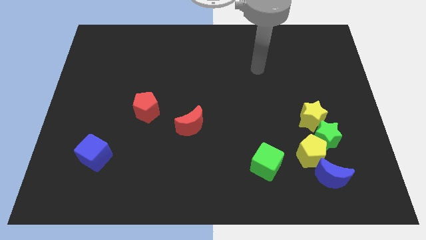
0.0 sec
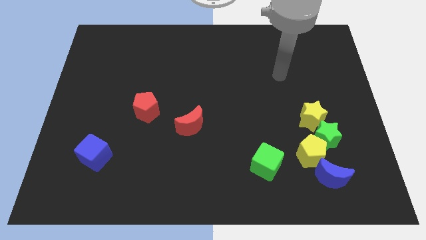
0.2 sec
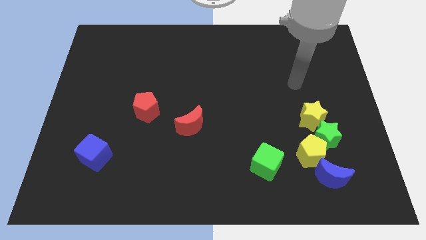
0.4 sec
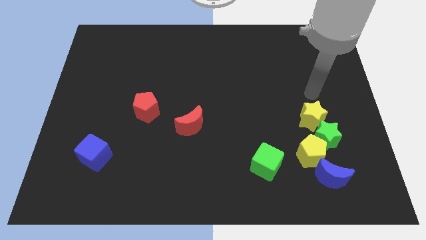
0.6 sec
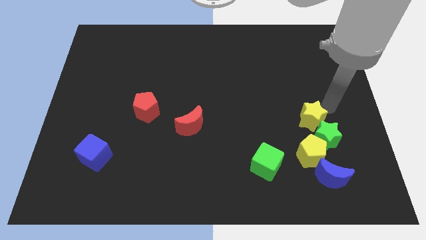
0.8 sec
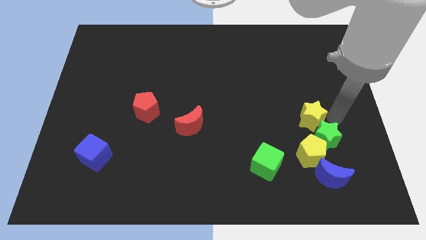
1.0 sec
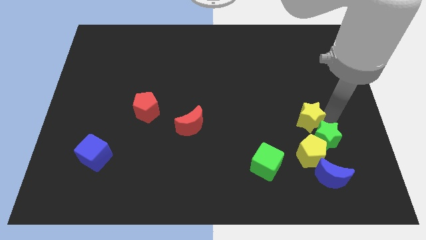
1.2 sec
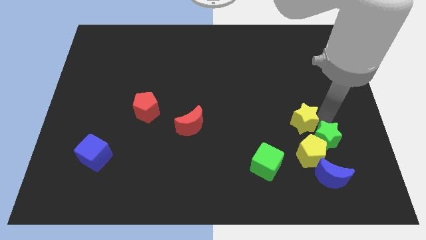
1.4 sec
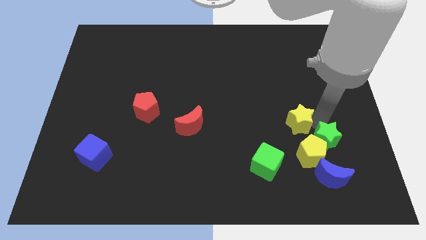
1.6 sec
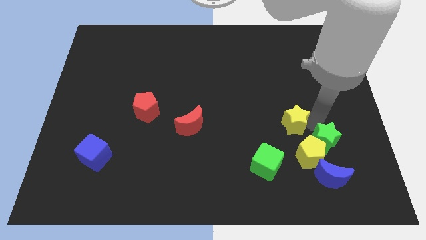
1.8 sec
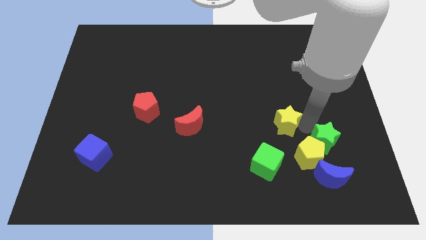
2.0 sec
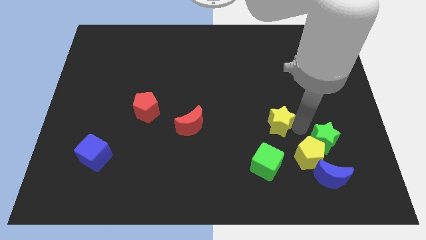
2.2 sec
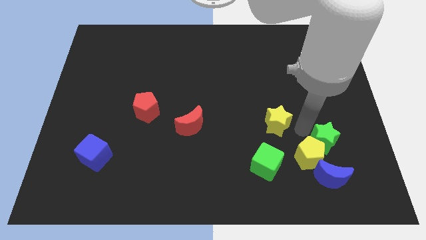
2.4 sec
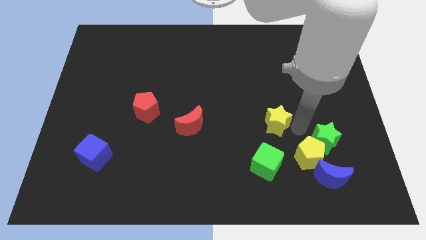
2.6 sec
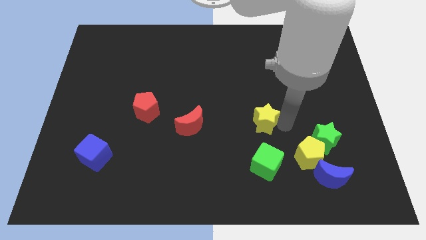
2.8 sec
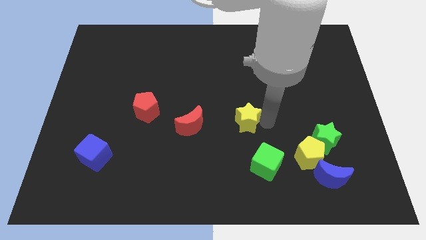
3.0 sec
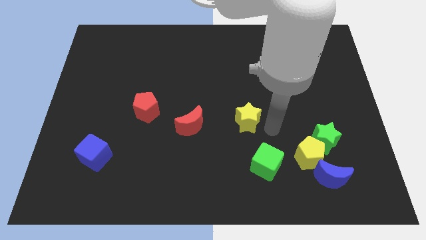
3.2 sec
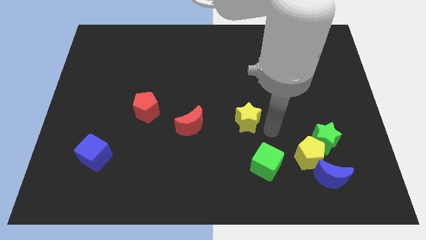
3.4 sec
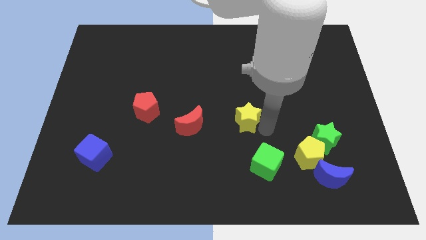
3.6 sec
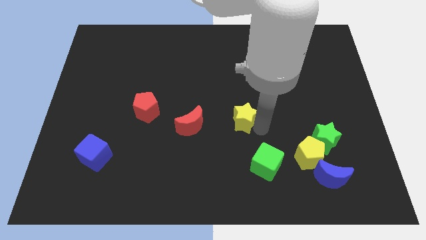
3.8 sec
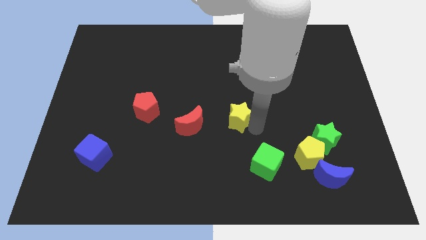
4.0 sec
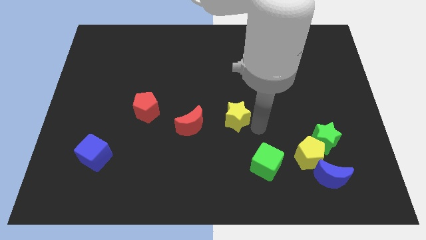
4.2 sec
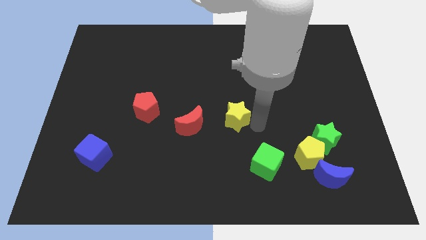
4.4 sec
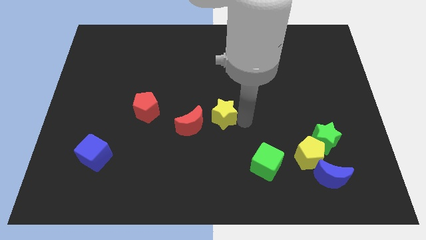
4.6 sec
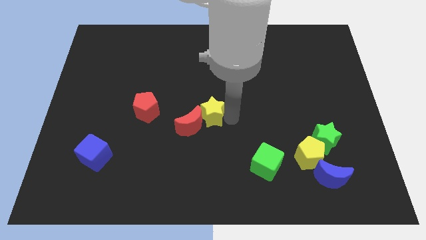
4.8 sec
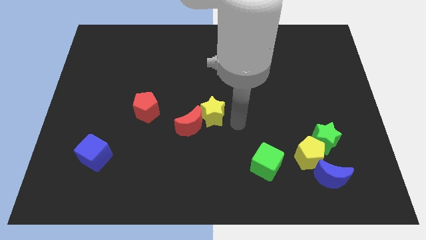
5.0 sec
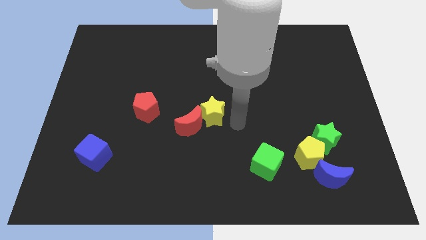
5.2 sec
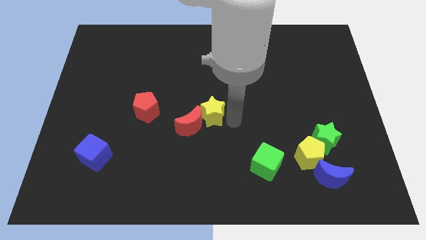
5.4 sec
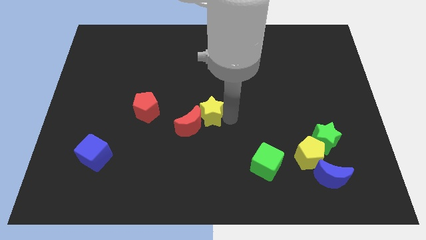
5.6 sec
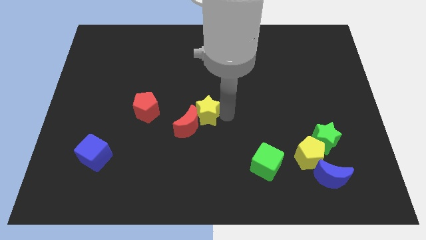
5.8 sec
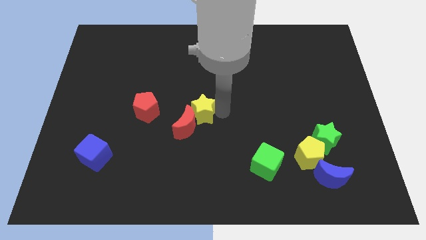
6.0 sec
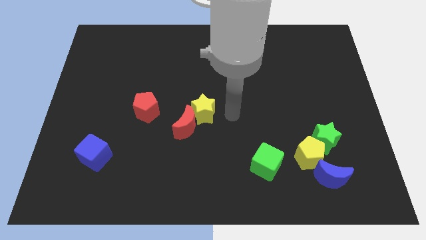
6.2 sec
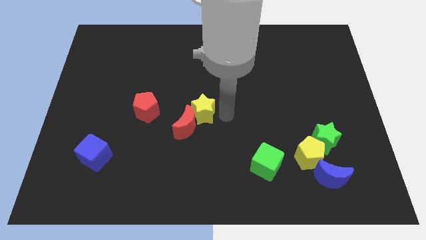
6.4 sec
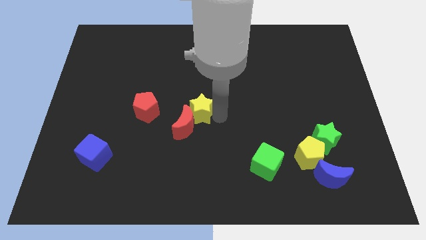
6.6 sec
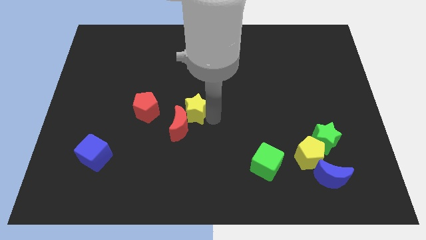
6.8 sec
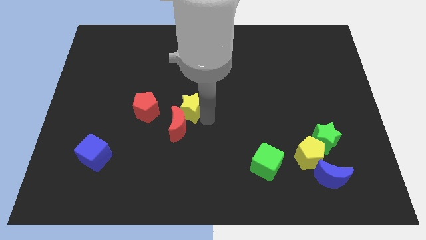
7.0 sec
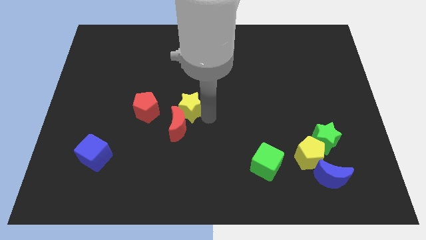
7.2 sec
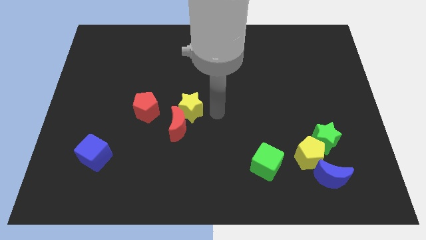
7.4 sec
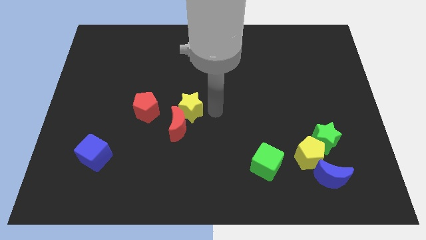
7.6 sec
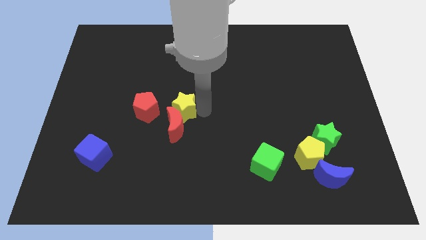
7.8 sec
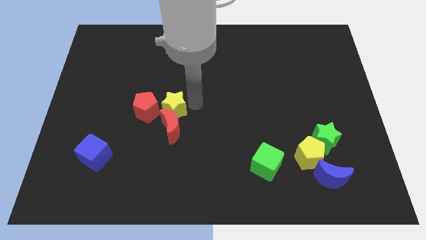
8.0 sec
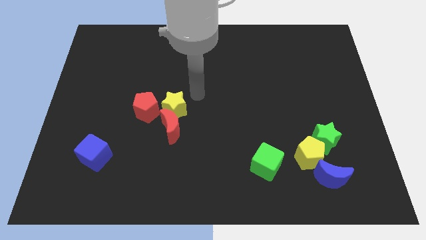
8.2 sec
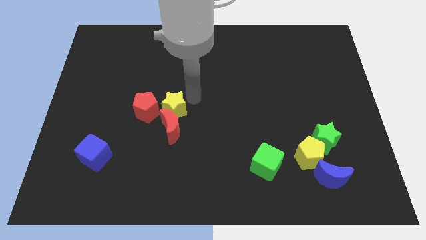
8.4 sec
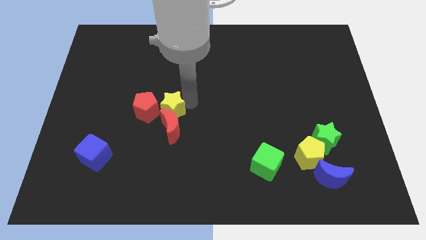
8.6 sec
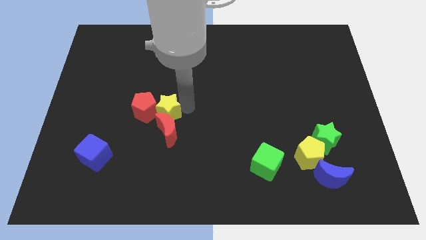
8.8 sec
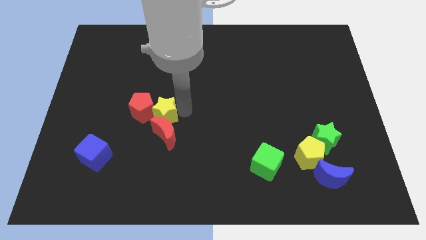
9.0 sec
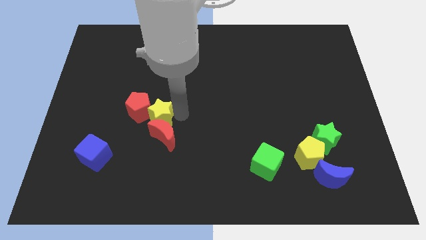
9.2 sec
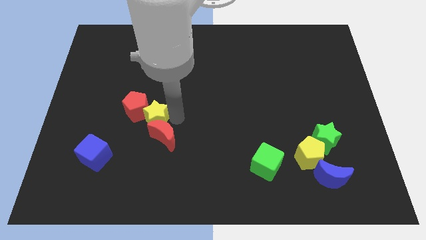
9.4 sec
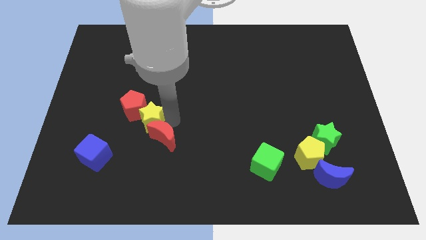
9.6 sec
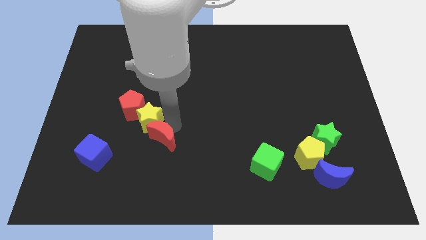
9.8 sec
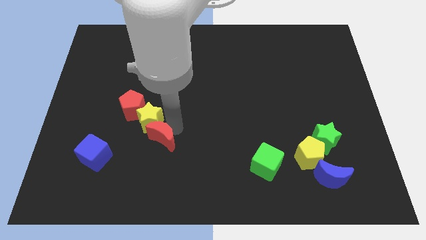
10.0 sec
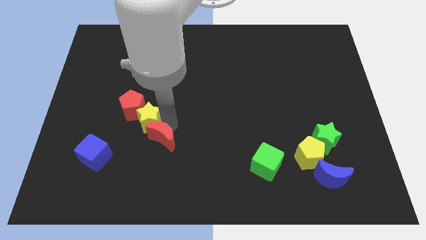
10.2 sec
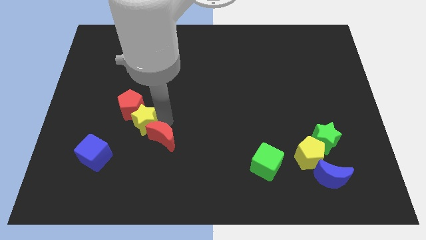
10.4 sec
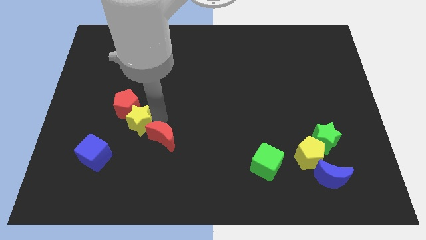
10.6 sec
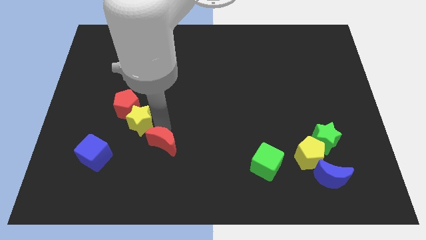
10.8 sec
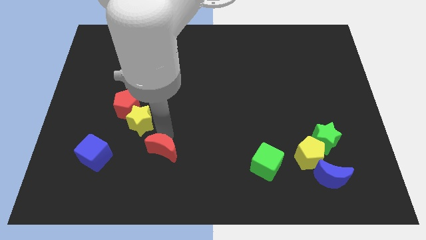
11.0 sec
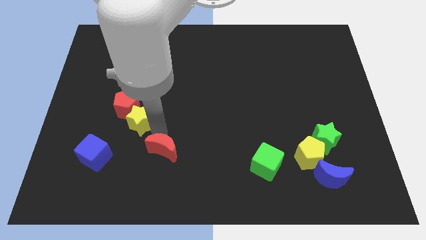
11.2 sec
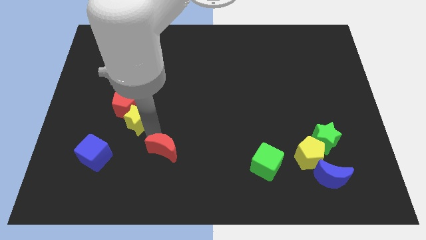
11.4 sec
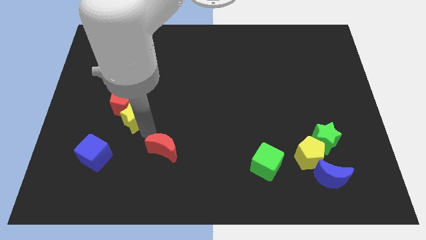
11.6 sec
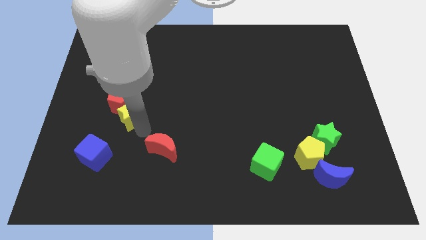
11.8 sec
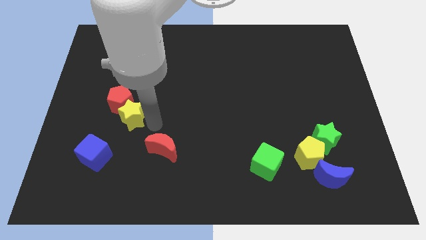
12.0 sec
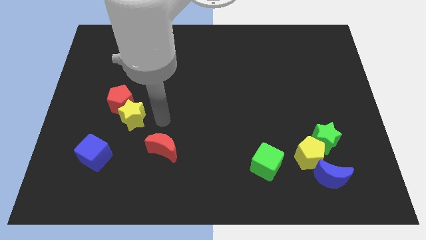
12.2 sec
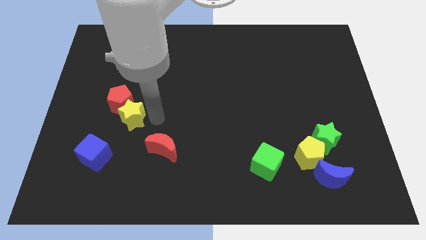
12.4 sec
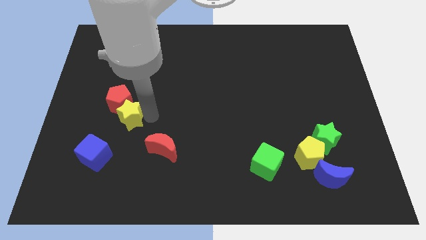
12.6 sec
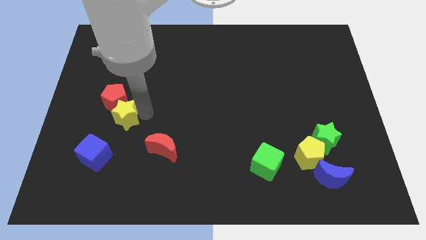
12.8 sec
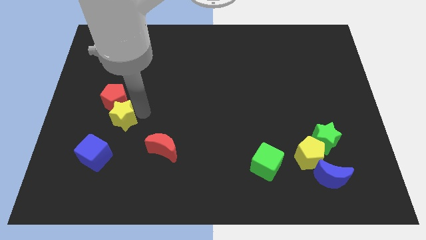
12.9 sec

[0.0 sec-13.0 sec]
slide the yellow star to the top side of the blue cube

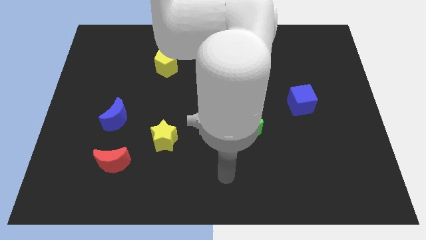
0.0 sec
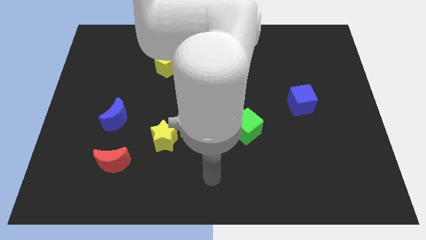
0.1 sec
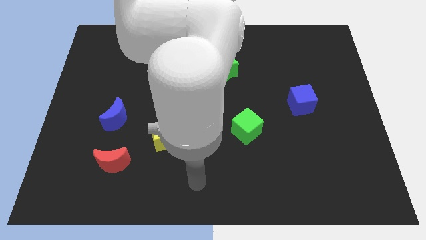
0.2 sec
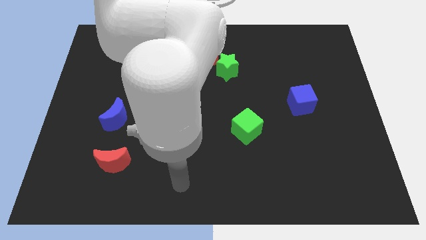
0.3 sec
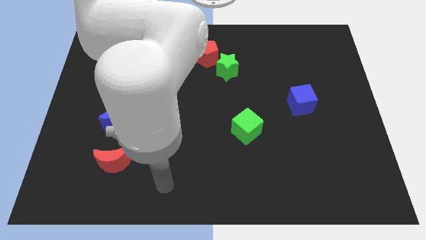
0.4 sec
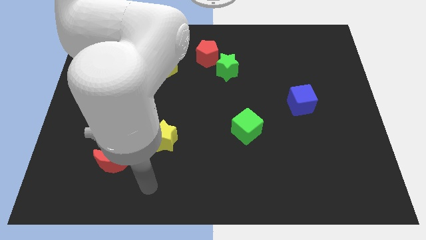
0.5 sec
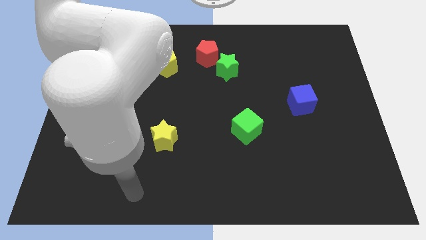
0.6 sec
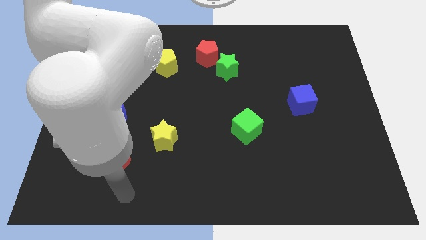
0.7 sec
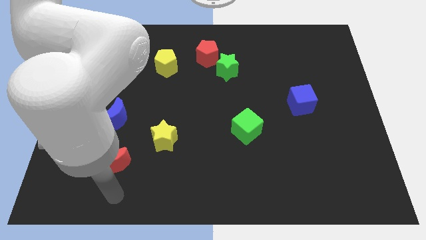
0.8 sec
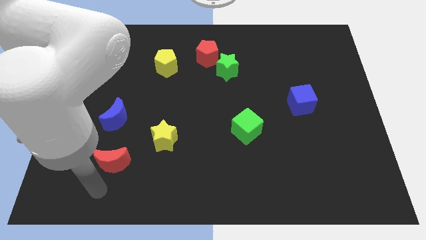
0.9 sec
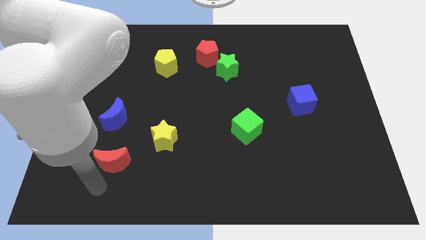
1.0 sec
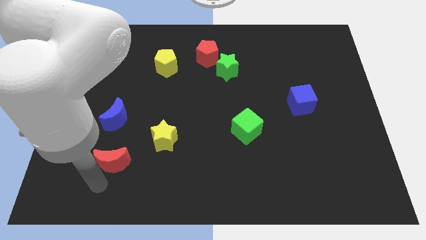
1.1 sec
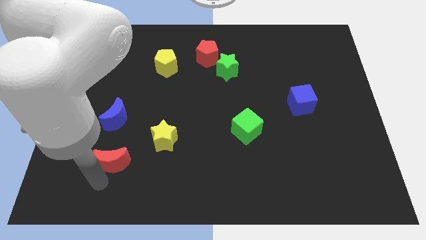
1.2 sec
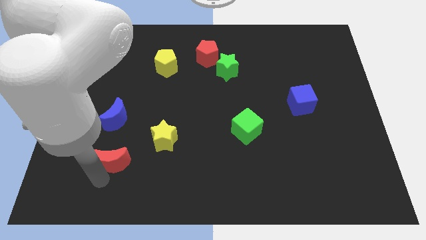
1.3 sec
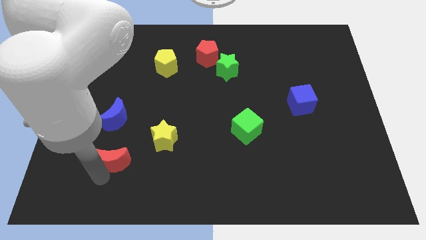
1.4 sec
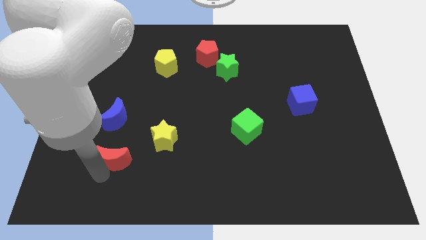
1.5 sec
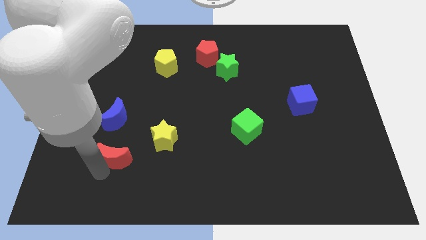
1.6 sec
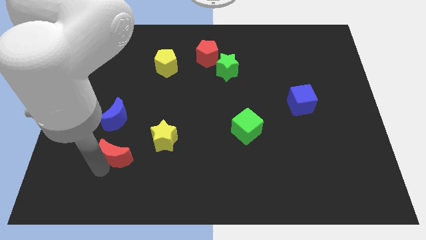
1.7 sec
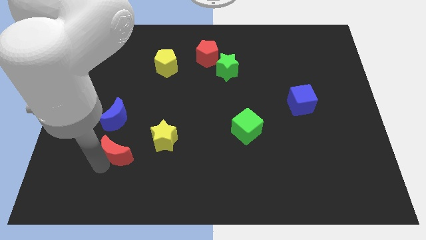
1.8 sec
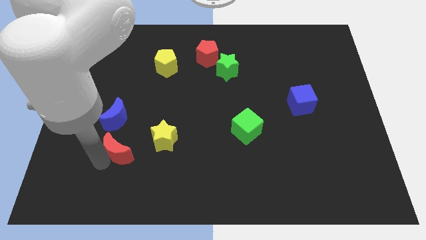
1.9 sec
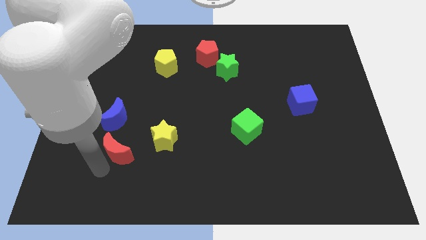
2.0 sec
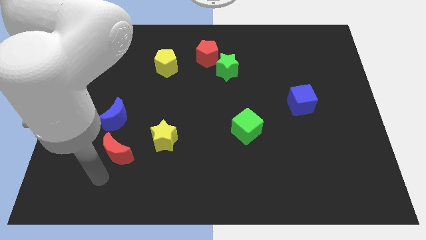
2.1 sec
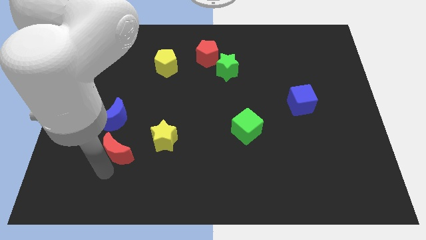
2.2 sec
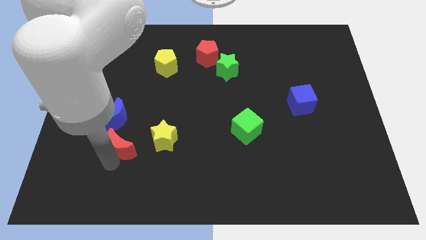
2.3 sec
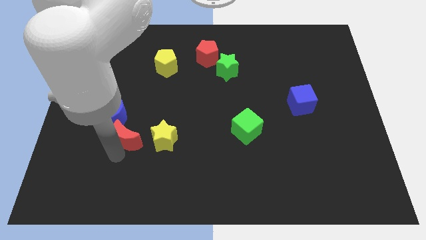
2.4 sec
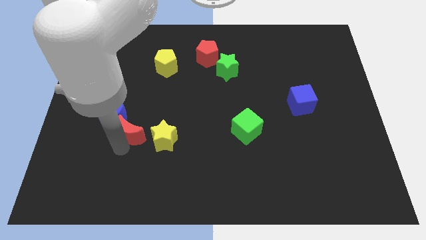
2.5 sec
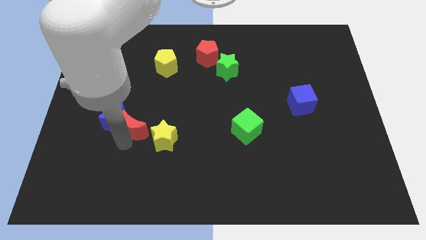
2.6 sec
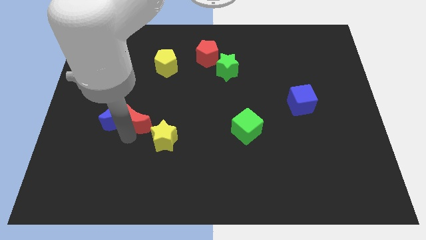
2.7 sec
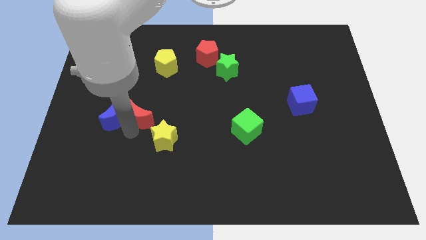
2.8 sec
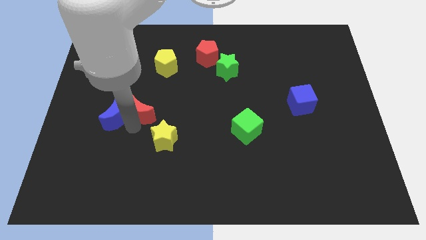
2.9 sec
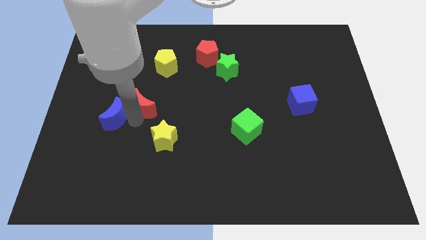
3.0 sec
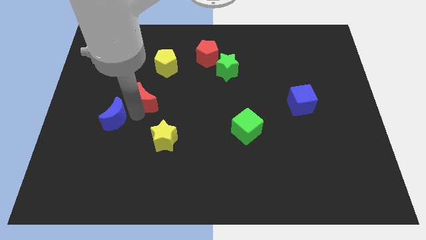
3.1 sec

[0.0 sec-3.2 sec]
put the red moon to the bottom of the yellow pentagon
